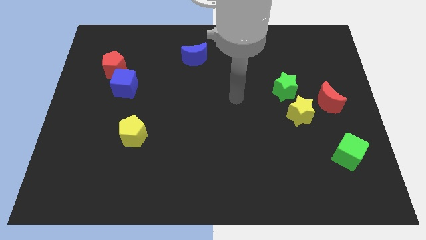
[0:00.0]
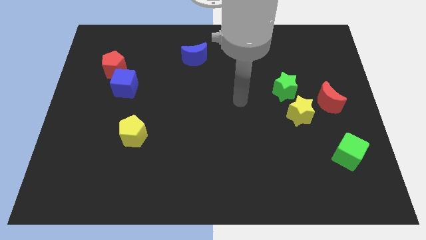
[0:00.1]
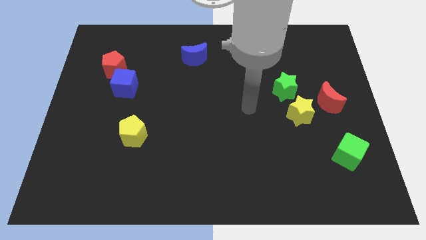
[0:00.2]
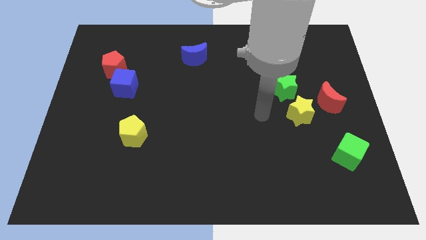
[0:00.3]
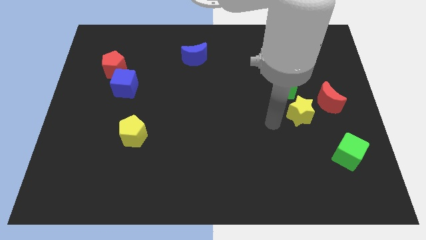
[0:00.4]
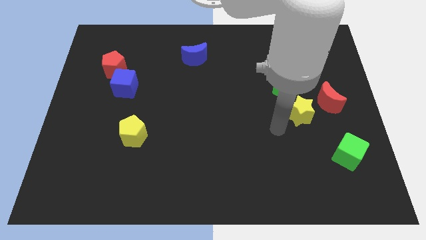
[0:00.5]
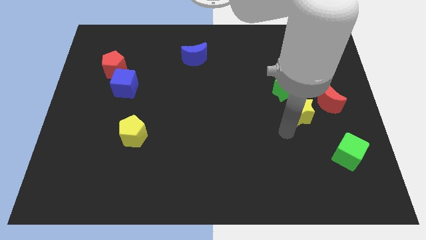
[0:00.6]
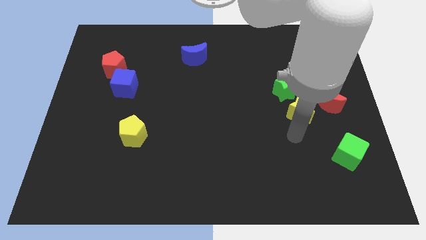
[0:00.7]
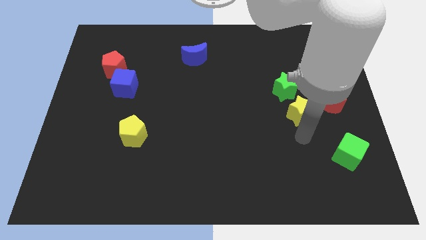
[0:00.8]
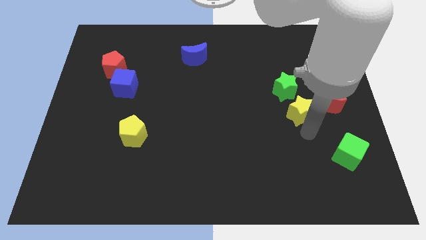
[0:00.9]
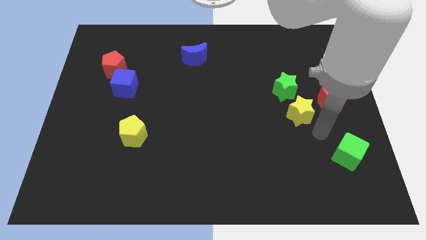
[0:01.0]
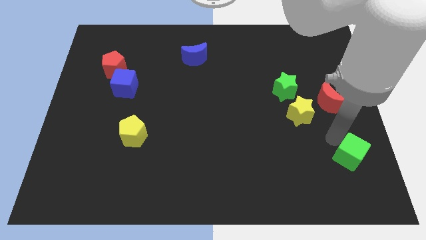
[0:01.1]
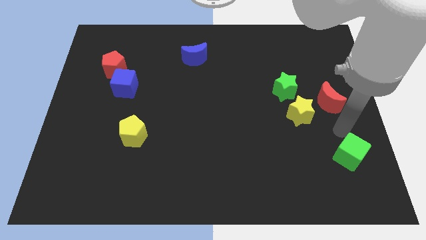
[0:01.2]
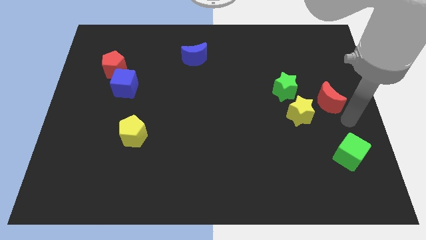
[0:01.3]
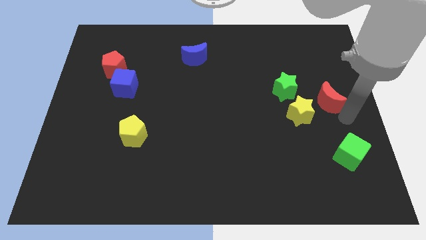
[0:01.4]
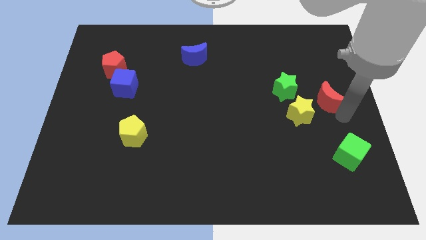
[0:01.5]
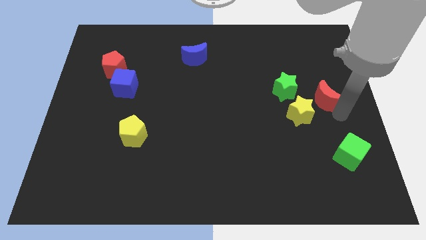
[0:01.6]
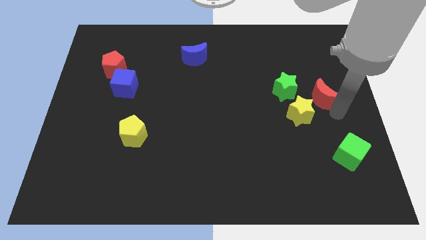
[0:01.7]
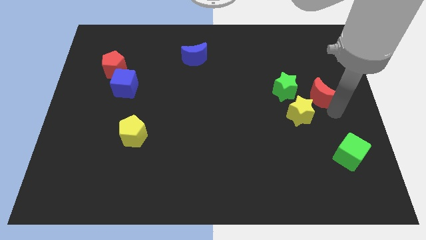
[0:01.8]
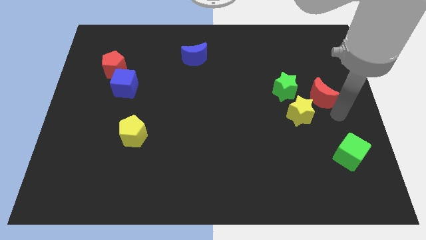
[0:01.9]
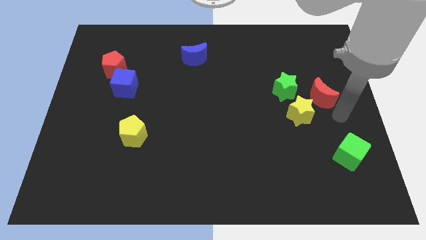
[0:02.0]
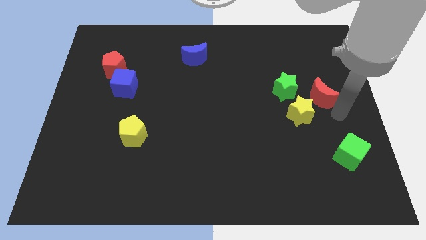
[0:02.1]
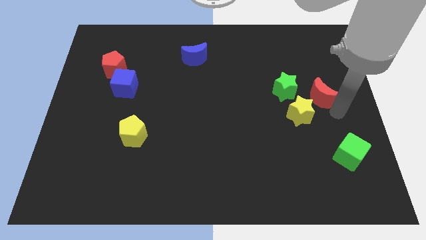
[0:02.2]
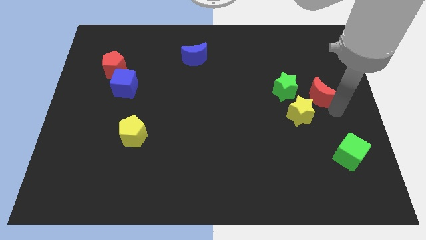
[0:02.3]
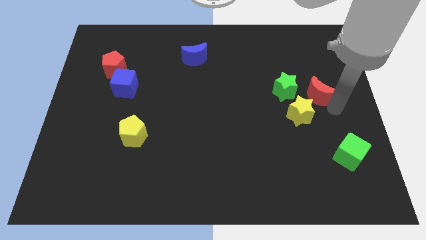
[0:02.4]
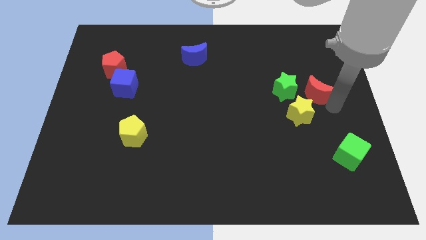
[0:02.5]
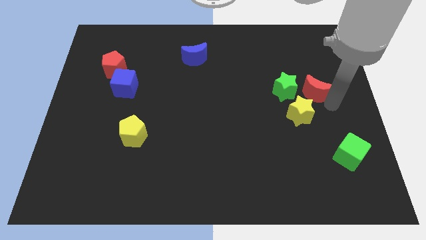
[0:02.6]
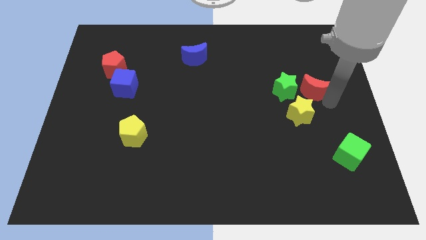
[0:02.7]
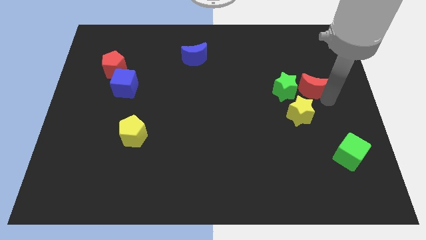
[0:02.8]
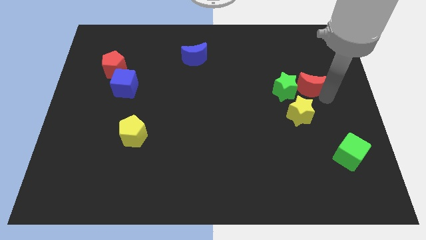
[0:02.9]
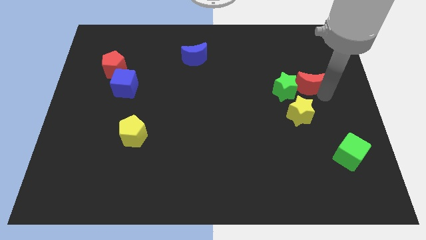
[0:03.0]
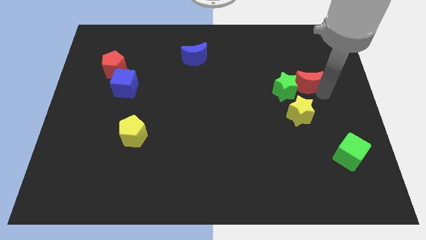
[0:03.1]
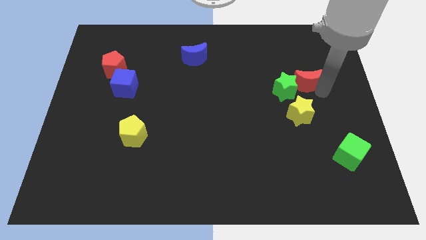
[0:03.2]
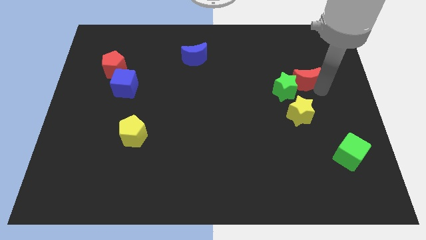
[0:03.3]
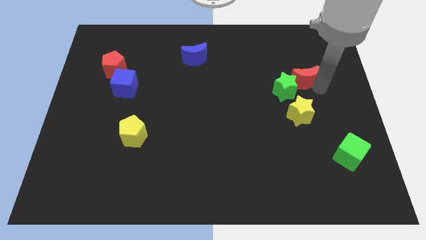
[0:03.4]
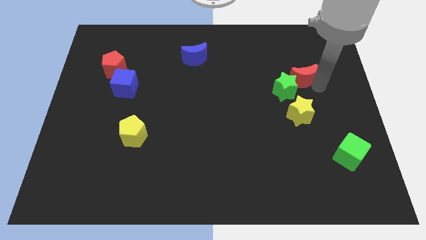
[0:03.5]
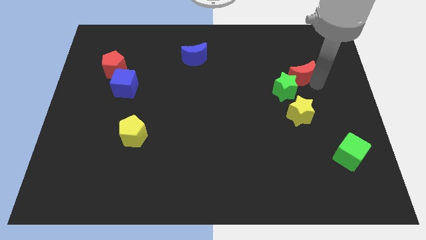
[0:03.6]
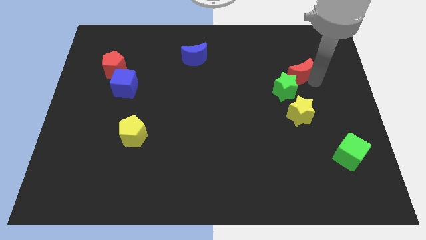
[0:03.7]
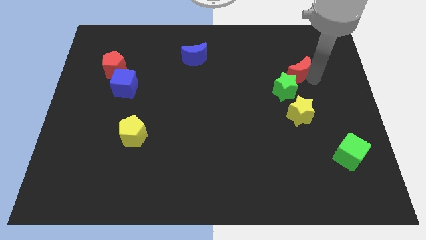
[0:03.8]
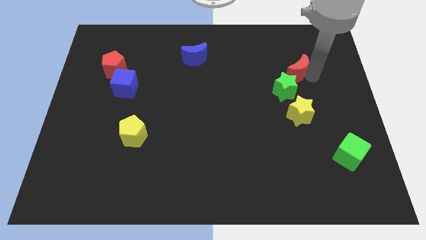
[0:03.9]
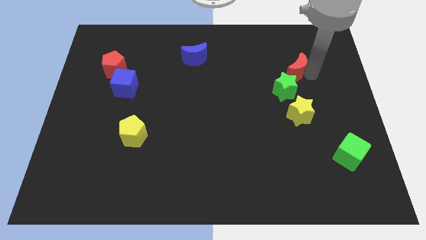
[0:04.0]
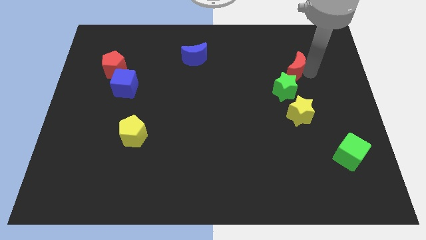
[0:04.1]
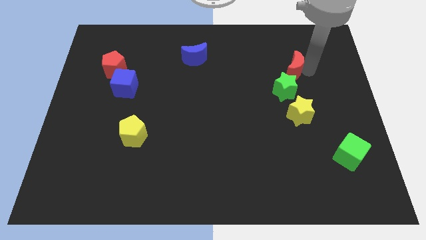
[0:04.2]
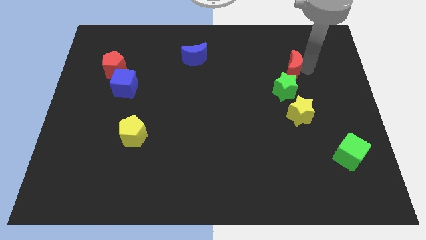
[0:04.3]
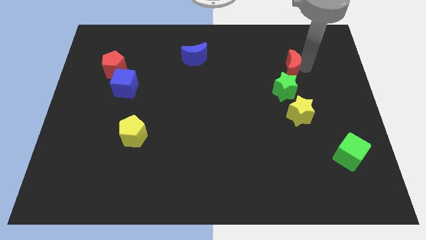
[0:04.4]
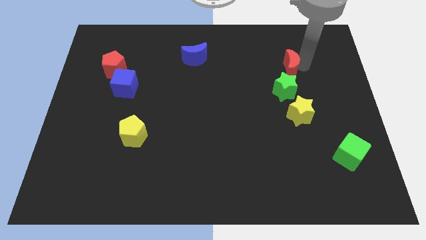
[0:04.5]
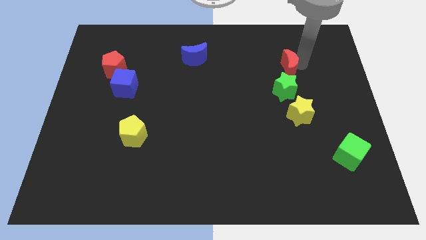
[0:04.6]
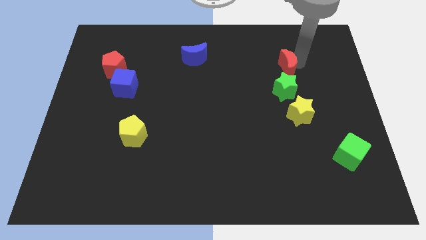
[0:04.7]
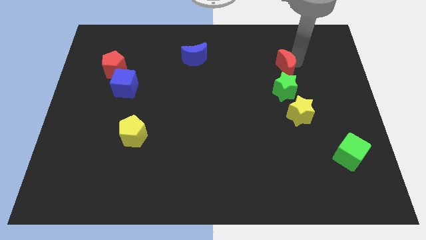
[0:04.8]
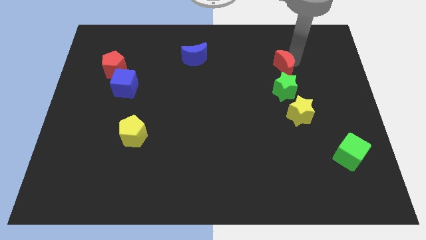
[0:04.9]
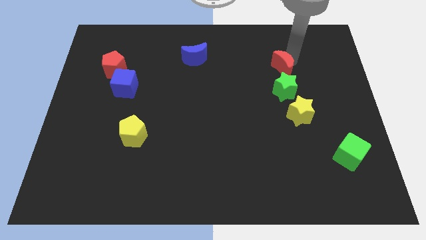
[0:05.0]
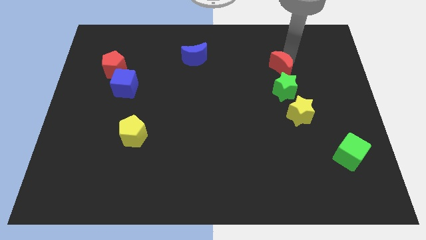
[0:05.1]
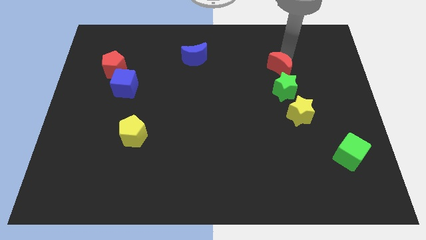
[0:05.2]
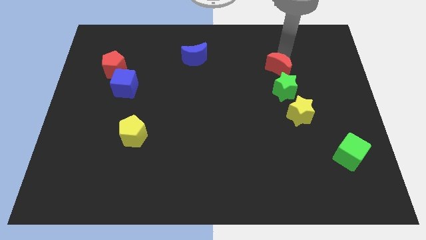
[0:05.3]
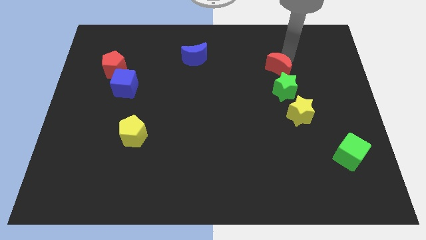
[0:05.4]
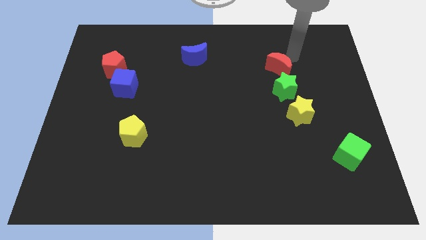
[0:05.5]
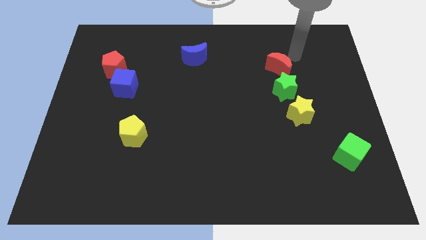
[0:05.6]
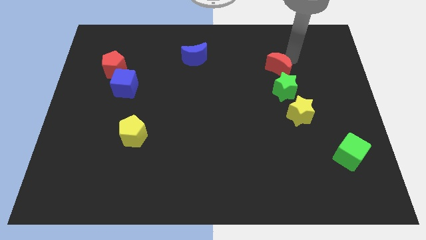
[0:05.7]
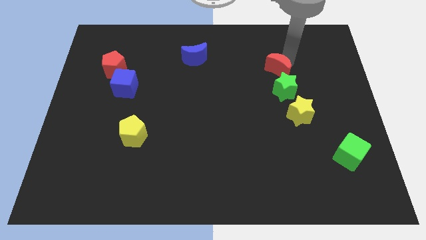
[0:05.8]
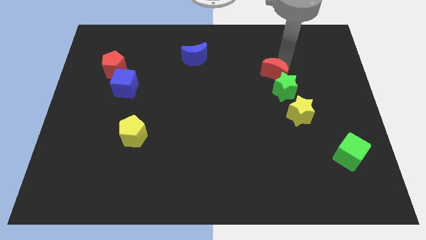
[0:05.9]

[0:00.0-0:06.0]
push the red moon a bit to the left

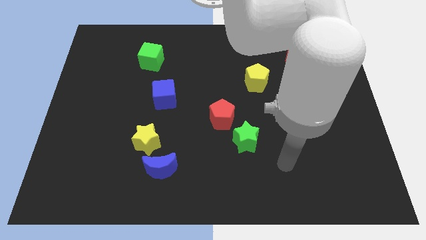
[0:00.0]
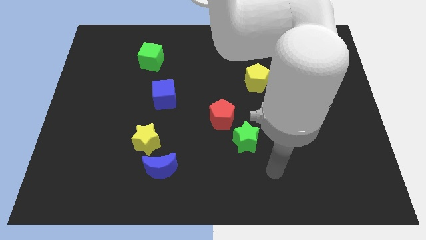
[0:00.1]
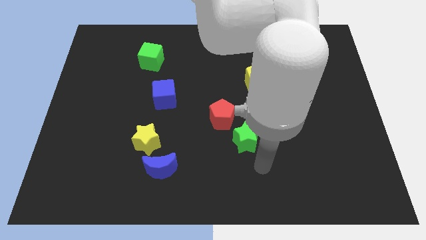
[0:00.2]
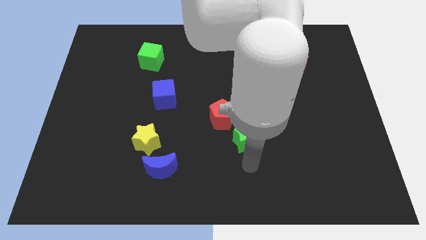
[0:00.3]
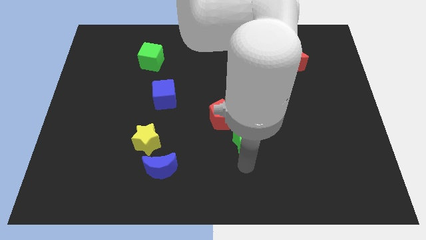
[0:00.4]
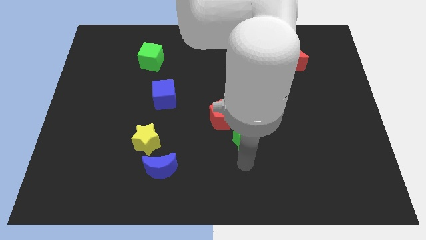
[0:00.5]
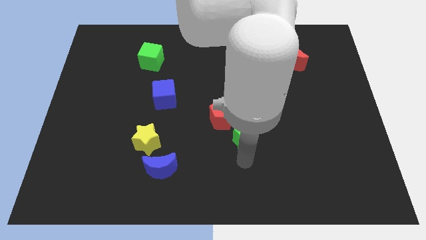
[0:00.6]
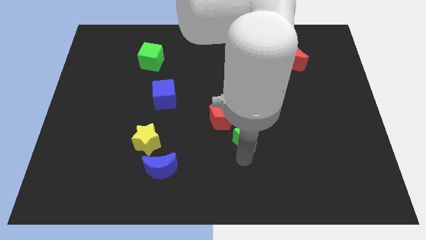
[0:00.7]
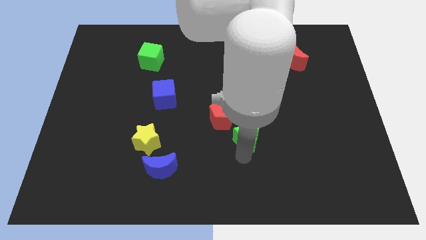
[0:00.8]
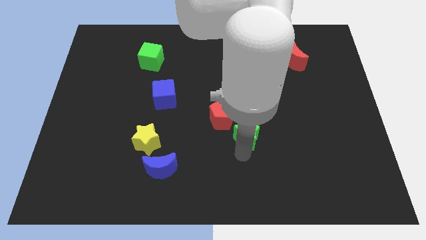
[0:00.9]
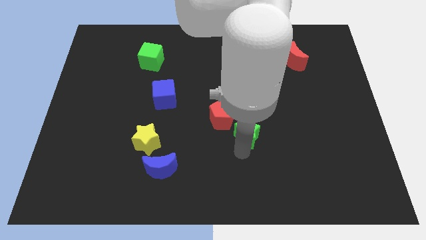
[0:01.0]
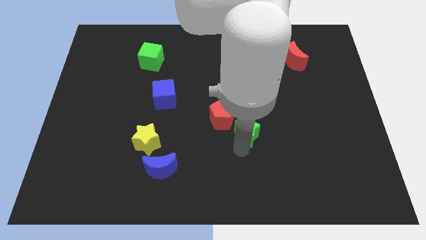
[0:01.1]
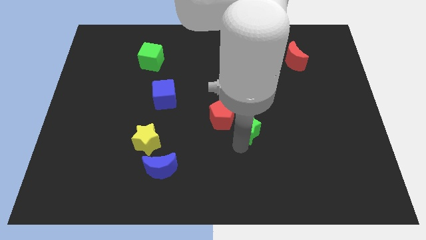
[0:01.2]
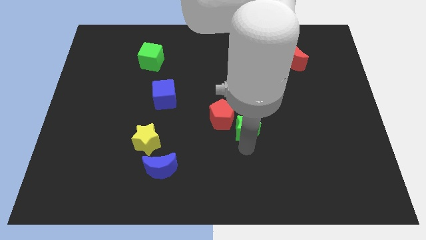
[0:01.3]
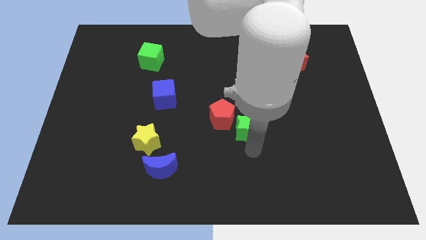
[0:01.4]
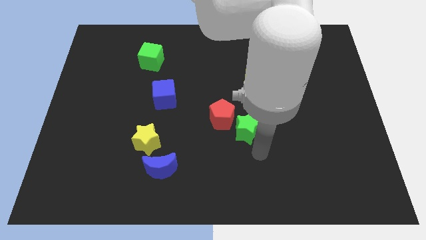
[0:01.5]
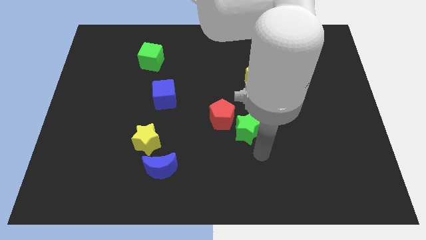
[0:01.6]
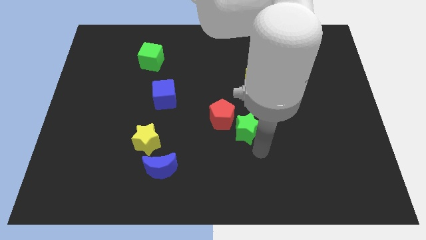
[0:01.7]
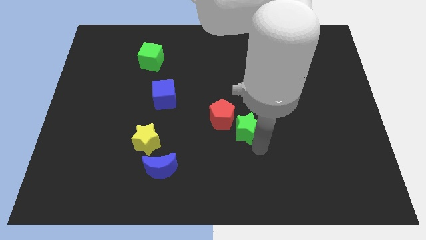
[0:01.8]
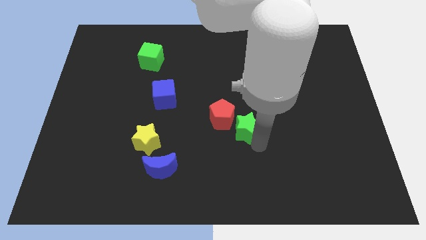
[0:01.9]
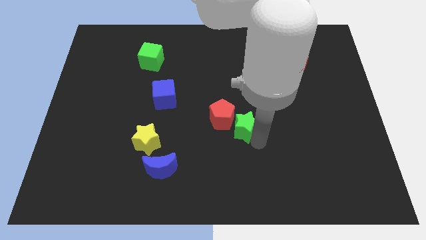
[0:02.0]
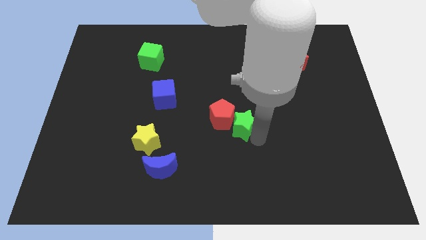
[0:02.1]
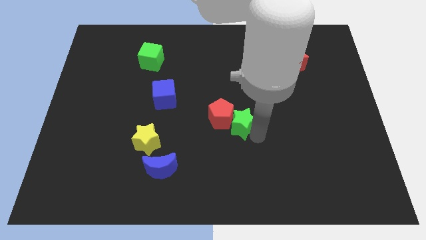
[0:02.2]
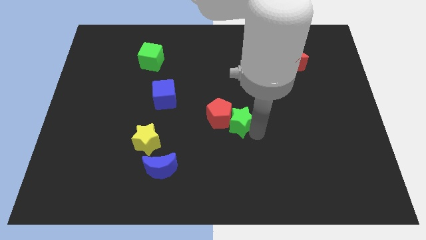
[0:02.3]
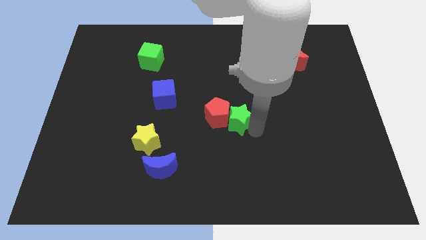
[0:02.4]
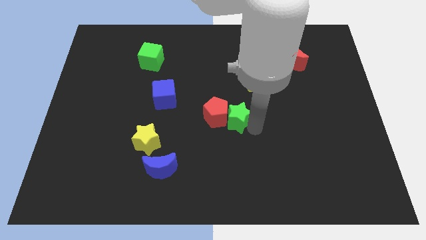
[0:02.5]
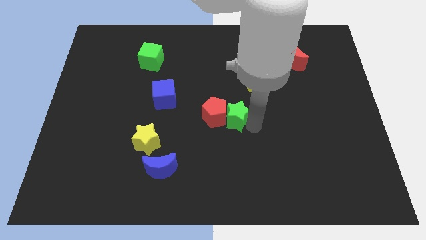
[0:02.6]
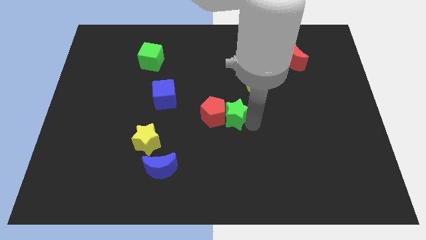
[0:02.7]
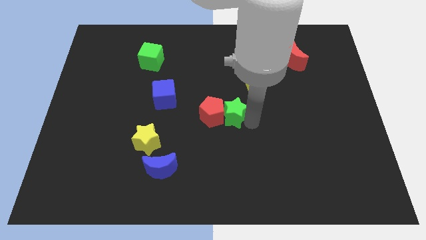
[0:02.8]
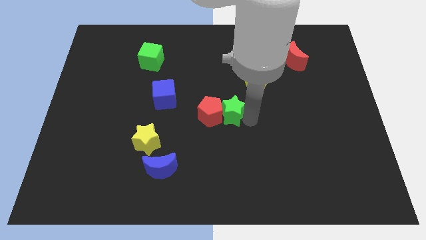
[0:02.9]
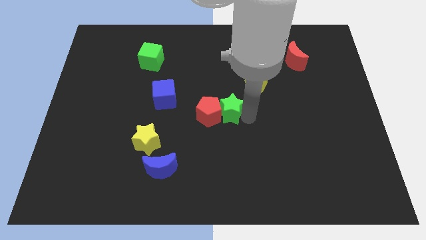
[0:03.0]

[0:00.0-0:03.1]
push the green star up and then to the left slightly
